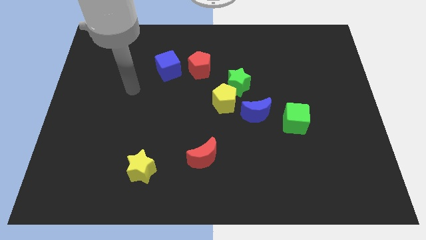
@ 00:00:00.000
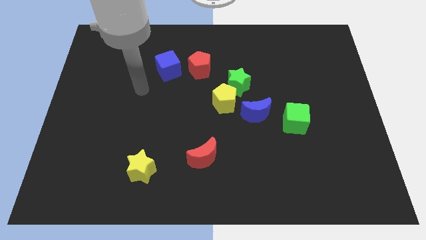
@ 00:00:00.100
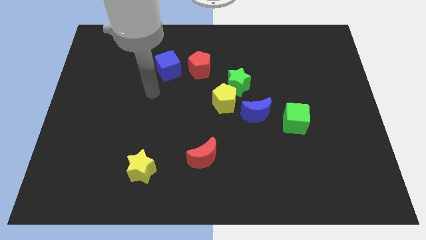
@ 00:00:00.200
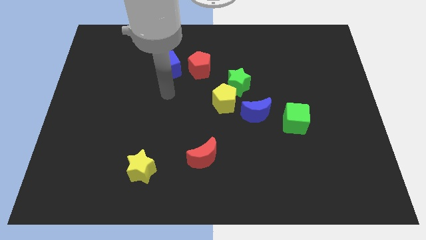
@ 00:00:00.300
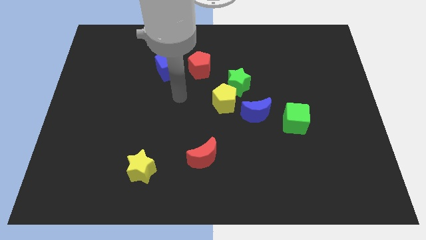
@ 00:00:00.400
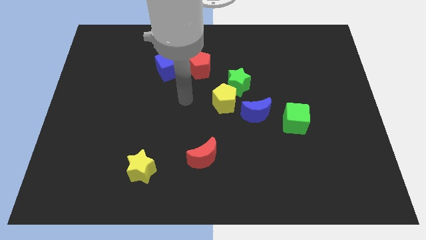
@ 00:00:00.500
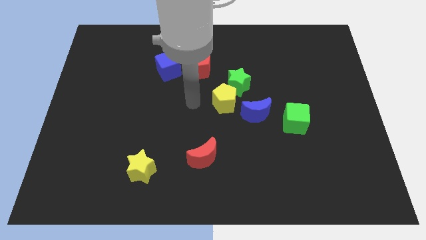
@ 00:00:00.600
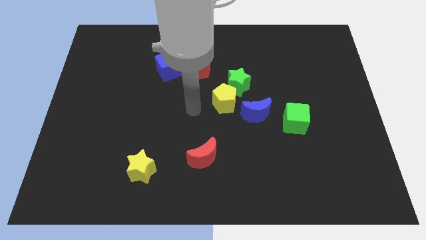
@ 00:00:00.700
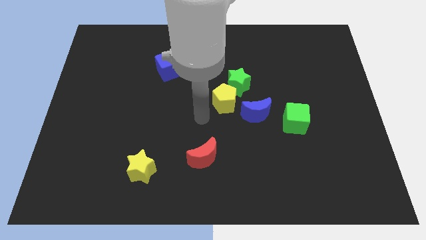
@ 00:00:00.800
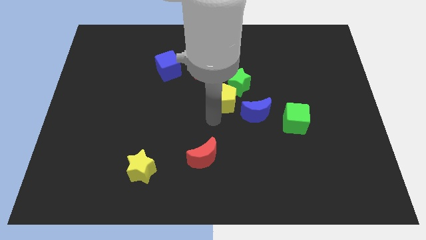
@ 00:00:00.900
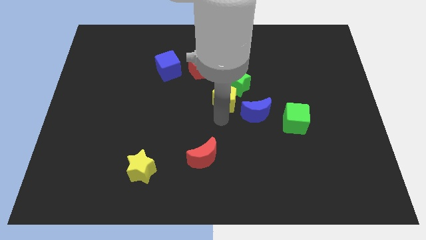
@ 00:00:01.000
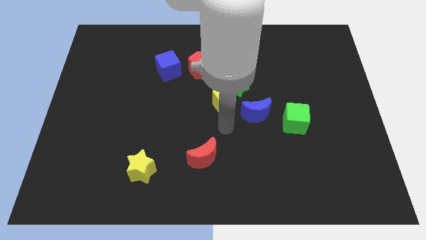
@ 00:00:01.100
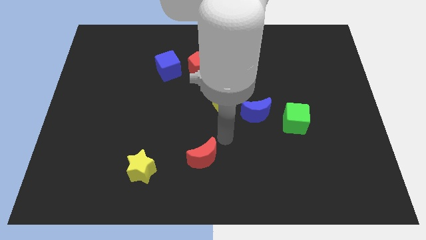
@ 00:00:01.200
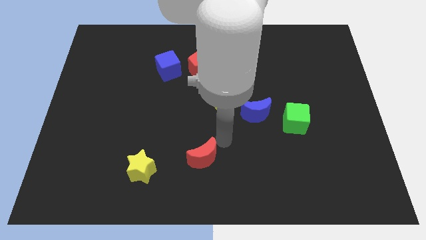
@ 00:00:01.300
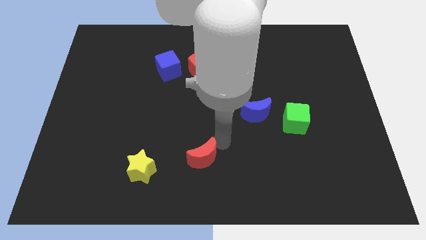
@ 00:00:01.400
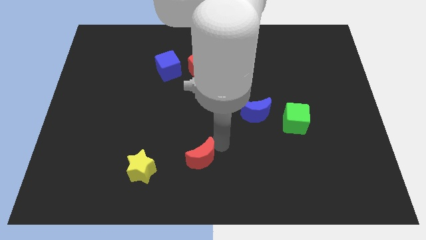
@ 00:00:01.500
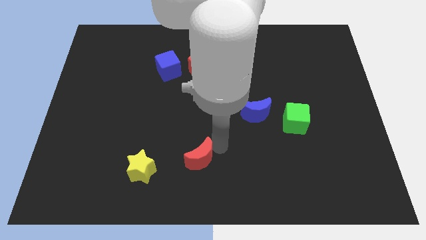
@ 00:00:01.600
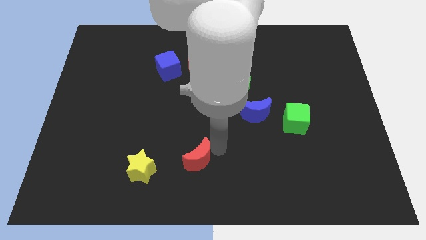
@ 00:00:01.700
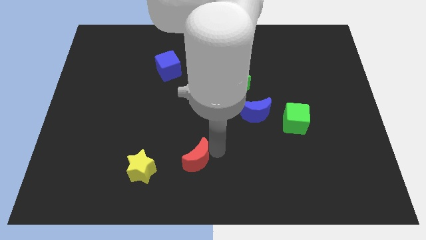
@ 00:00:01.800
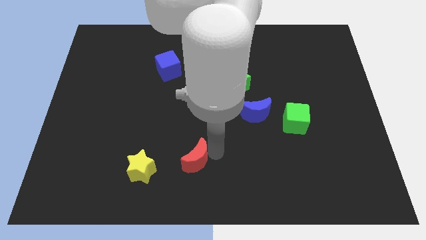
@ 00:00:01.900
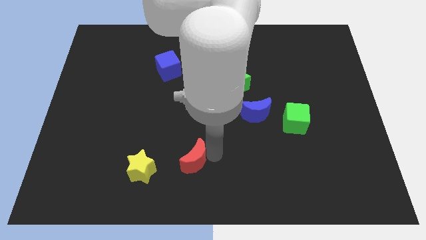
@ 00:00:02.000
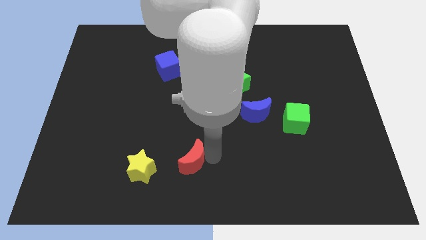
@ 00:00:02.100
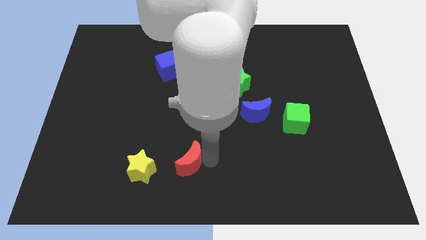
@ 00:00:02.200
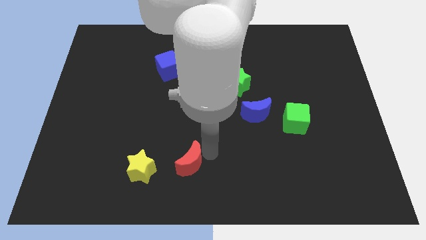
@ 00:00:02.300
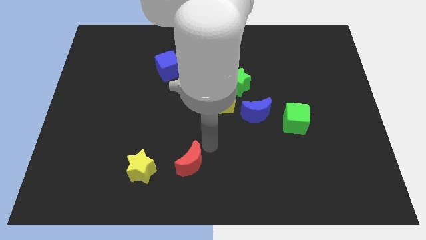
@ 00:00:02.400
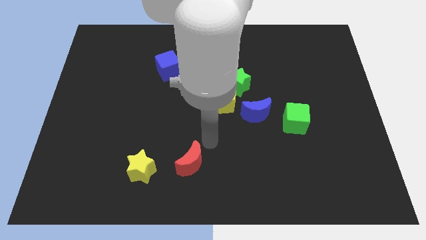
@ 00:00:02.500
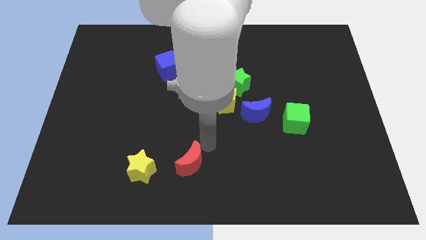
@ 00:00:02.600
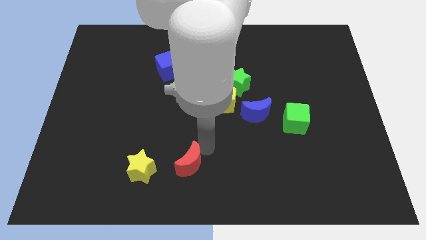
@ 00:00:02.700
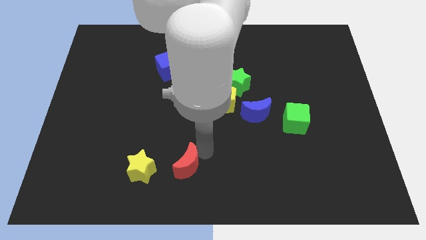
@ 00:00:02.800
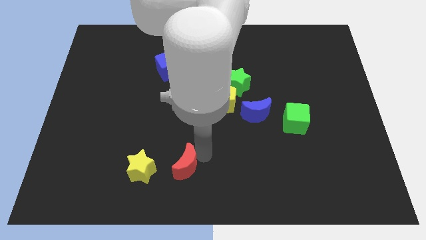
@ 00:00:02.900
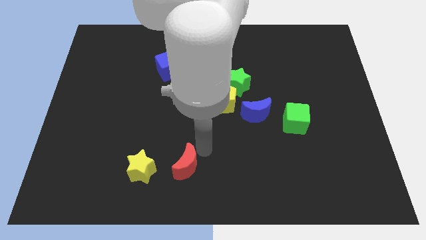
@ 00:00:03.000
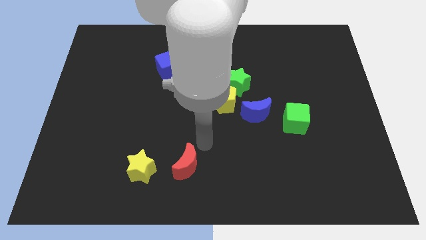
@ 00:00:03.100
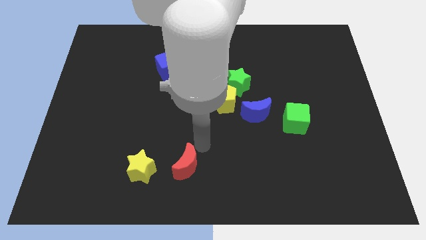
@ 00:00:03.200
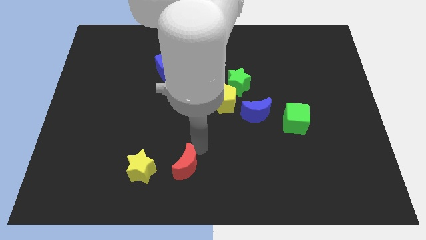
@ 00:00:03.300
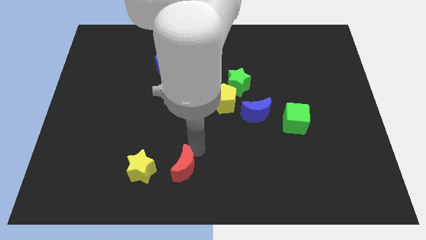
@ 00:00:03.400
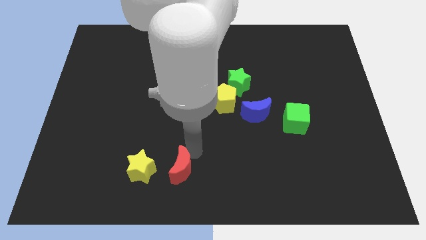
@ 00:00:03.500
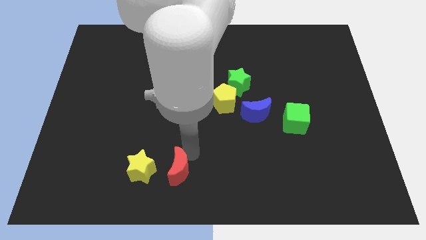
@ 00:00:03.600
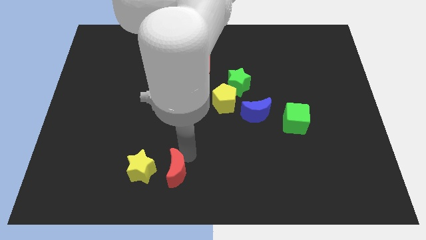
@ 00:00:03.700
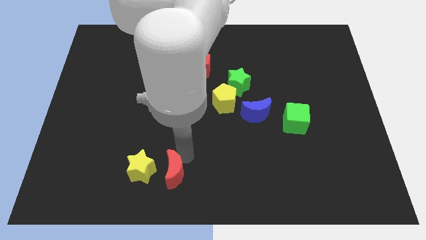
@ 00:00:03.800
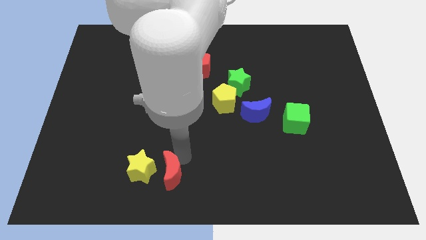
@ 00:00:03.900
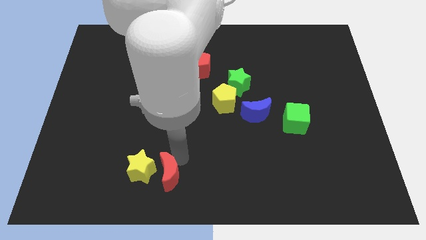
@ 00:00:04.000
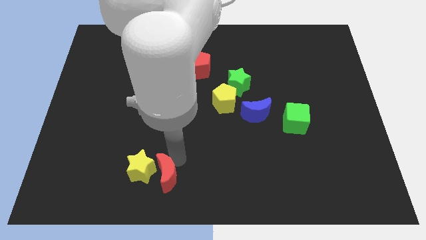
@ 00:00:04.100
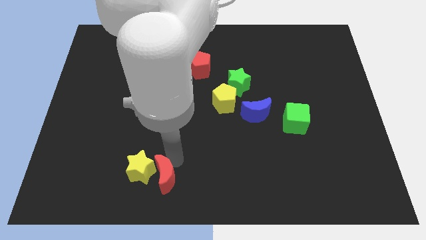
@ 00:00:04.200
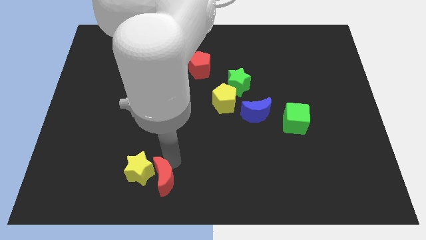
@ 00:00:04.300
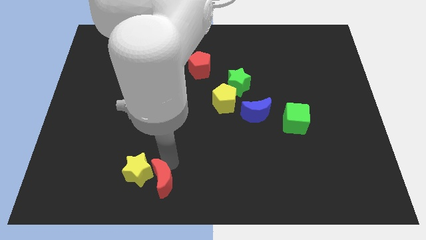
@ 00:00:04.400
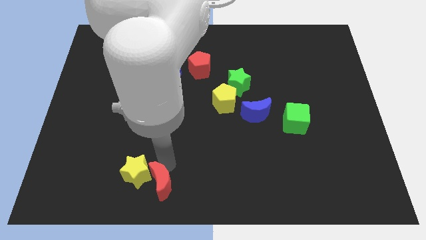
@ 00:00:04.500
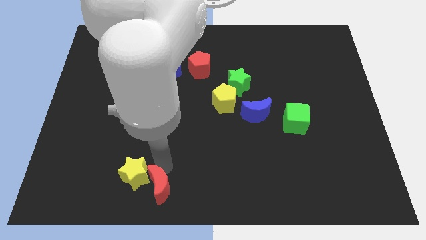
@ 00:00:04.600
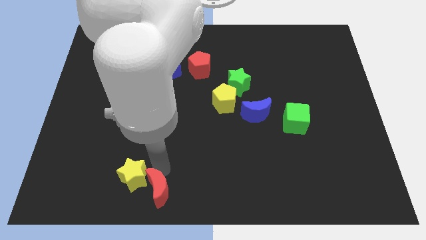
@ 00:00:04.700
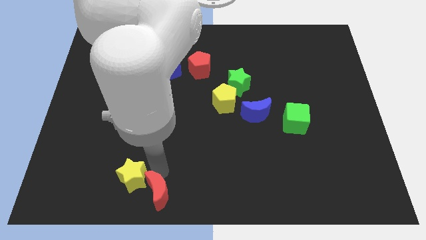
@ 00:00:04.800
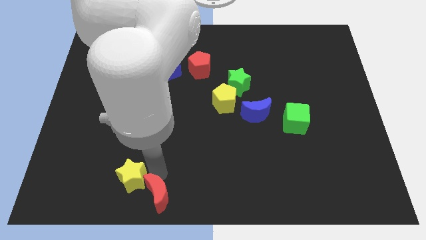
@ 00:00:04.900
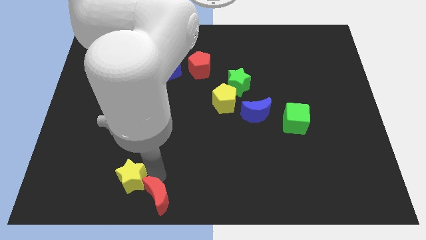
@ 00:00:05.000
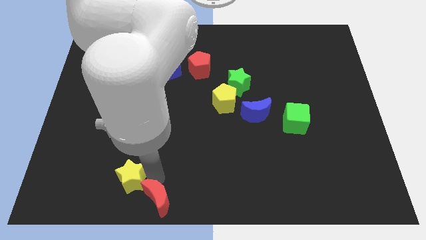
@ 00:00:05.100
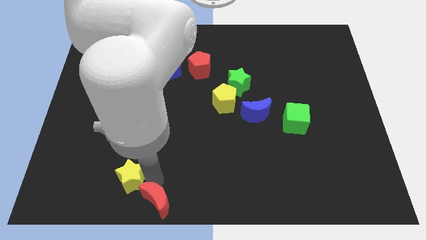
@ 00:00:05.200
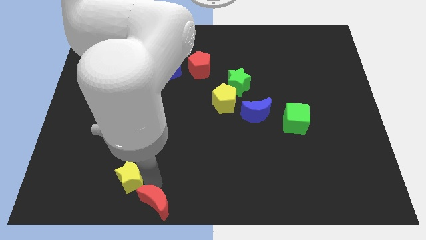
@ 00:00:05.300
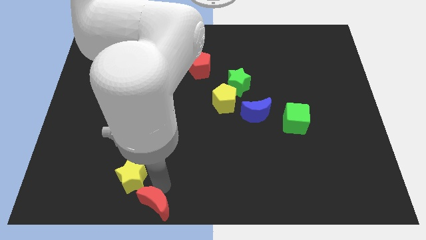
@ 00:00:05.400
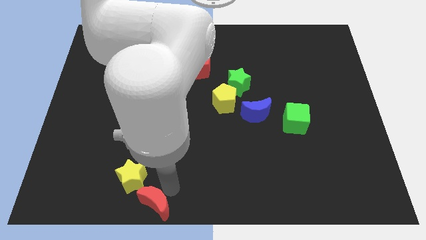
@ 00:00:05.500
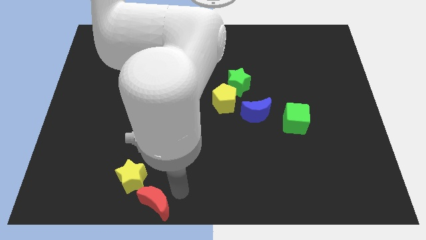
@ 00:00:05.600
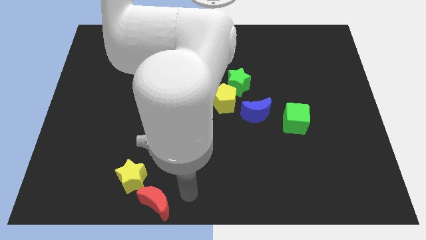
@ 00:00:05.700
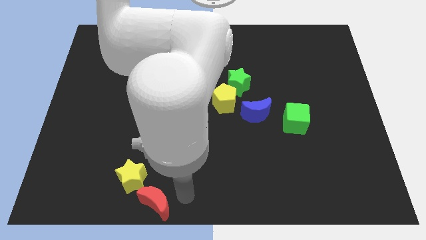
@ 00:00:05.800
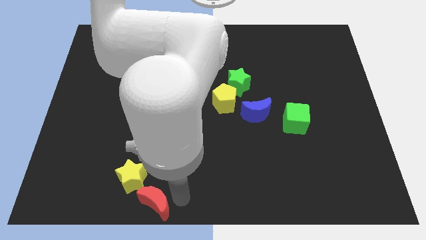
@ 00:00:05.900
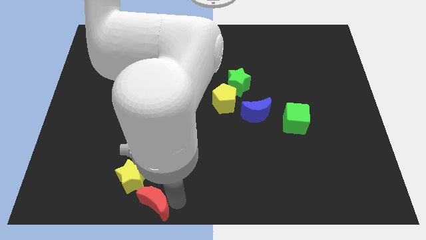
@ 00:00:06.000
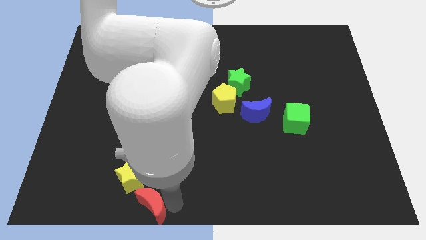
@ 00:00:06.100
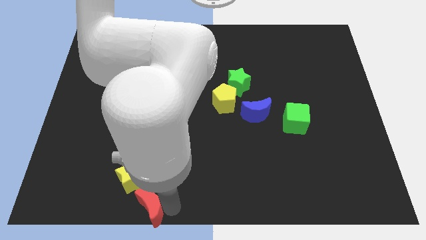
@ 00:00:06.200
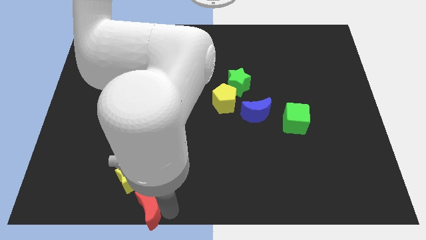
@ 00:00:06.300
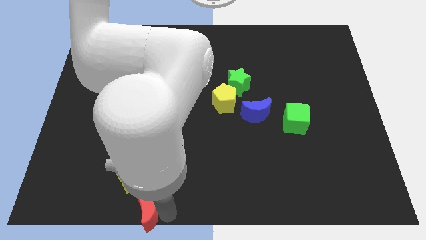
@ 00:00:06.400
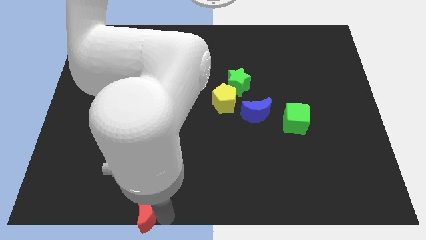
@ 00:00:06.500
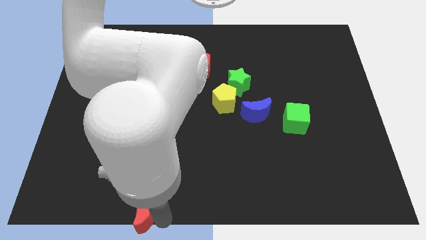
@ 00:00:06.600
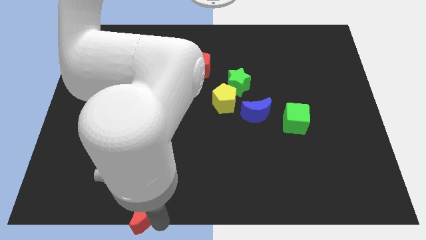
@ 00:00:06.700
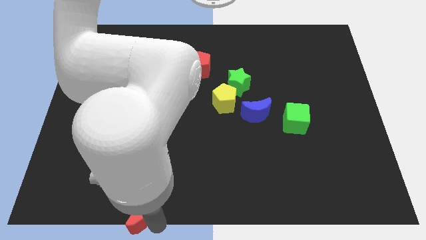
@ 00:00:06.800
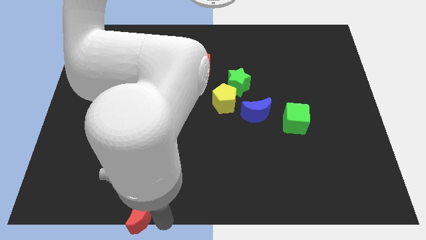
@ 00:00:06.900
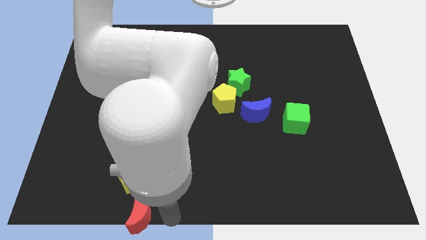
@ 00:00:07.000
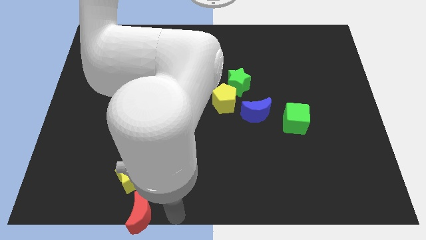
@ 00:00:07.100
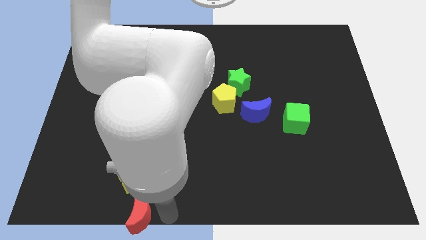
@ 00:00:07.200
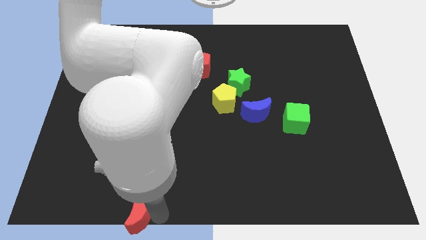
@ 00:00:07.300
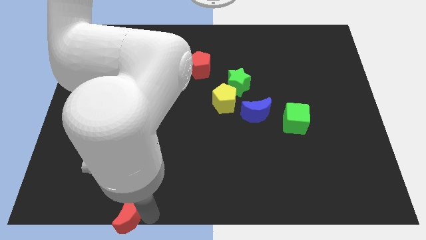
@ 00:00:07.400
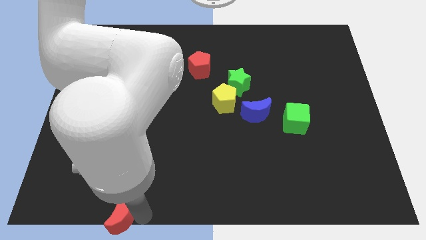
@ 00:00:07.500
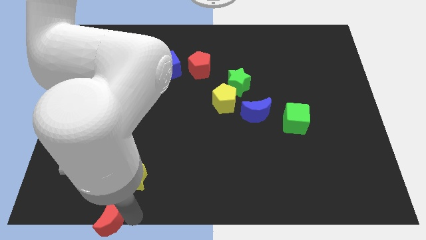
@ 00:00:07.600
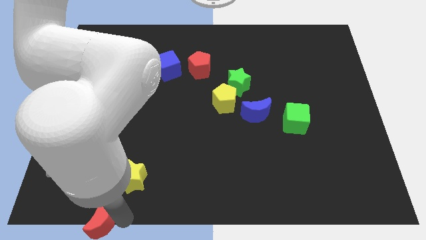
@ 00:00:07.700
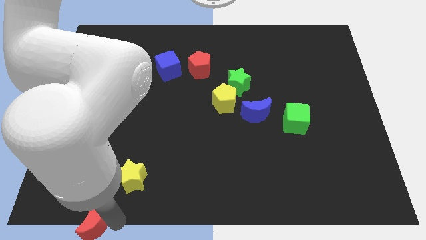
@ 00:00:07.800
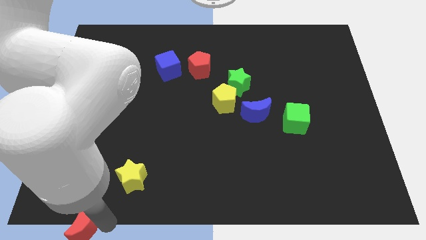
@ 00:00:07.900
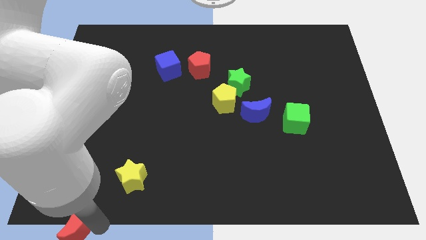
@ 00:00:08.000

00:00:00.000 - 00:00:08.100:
put the red moon to the lower left corner
